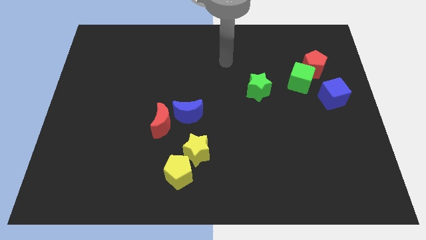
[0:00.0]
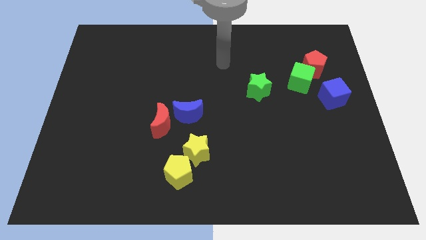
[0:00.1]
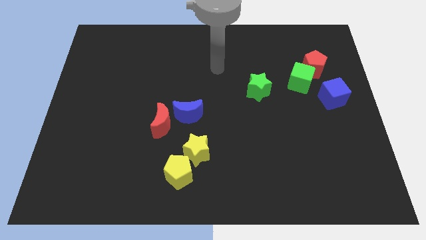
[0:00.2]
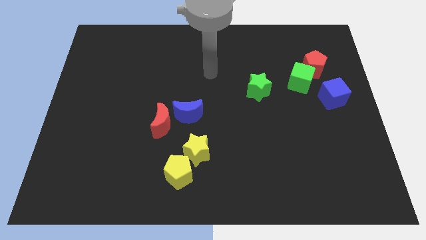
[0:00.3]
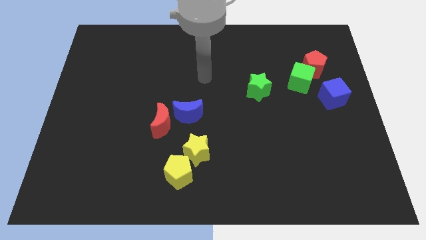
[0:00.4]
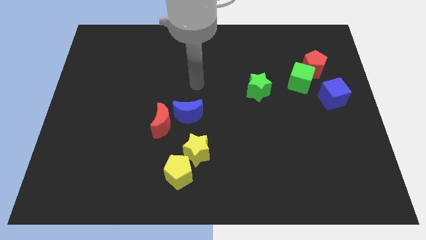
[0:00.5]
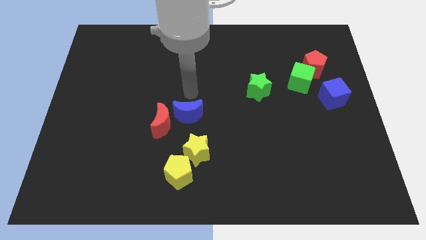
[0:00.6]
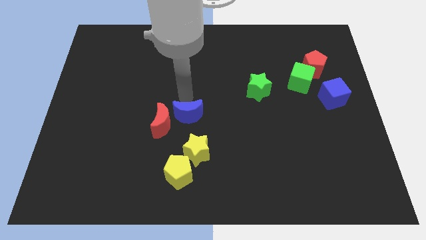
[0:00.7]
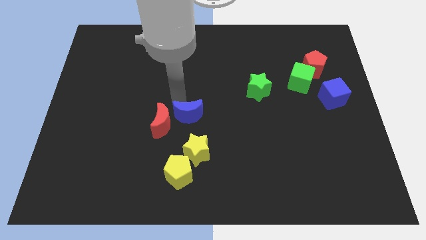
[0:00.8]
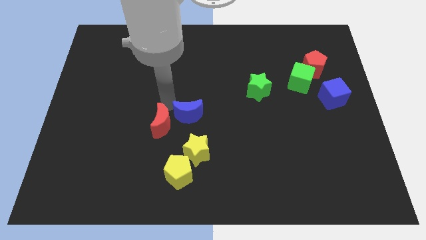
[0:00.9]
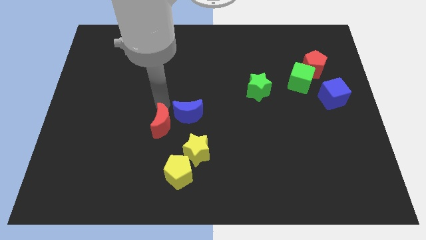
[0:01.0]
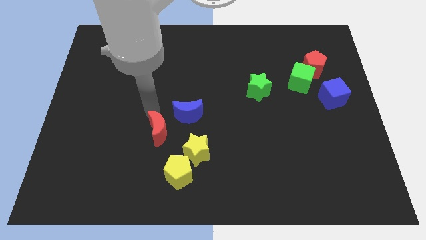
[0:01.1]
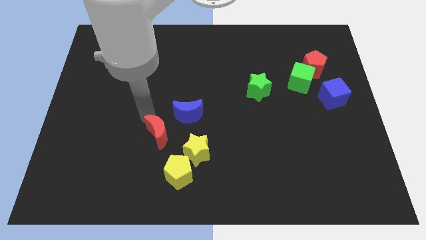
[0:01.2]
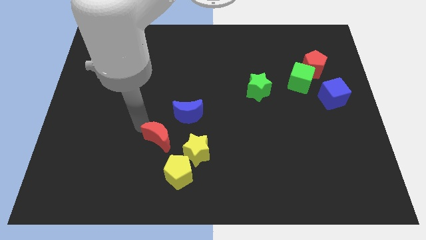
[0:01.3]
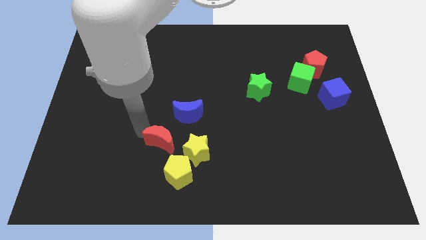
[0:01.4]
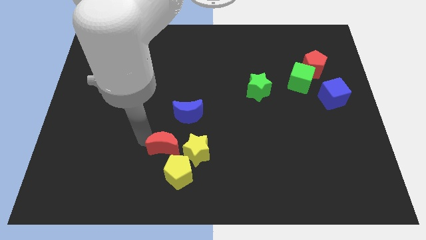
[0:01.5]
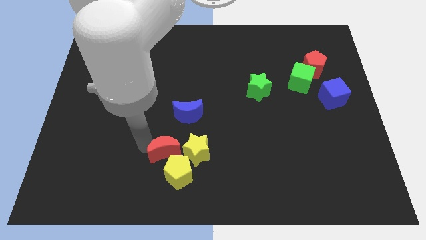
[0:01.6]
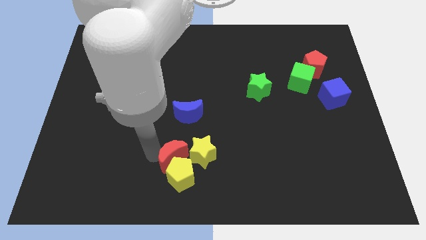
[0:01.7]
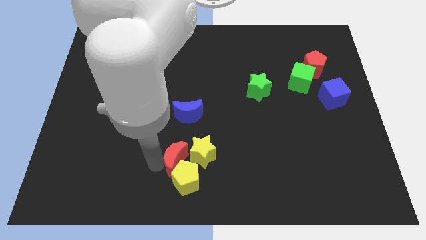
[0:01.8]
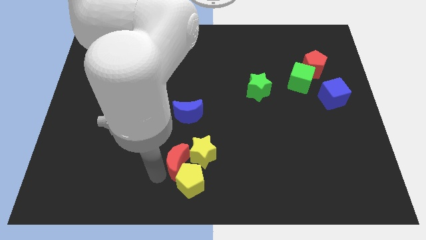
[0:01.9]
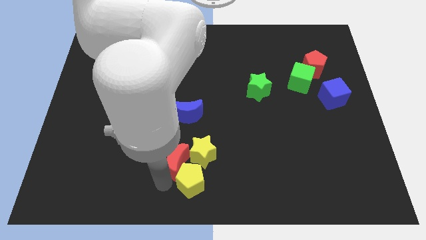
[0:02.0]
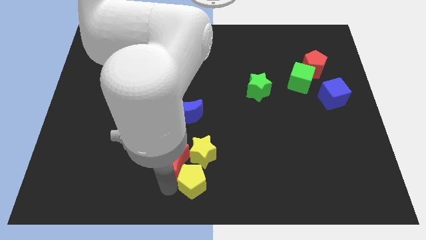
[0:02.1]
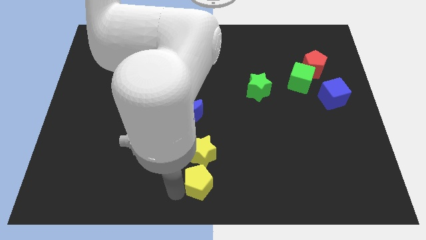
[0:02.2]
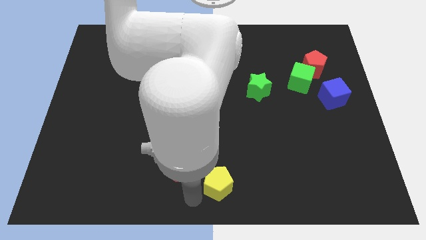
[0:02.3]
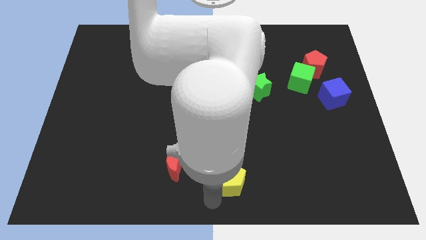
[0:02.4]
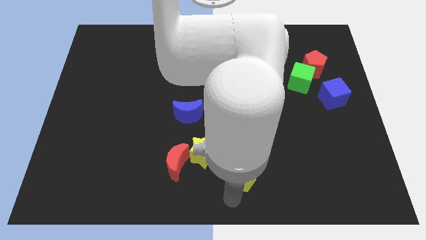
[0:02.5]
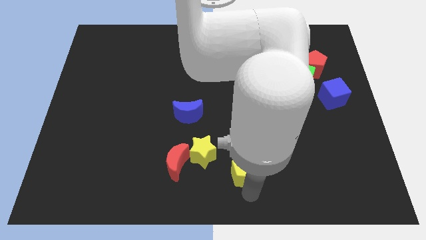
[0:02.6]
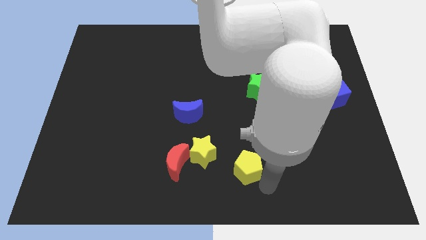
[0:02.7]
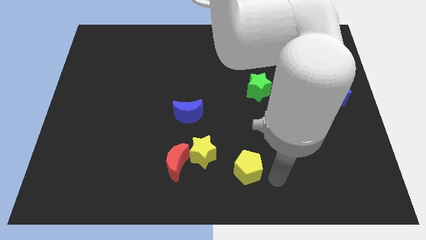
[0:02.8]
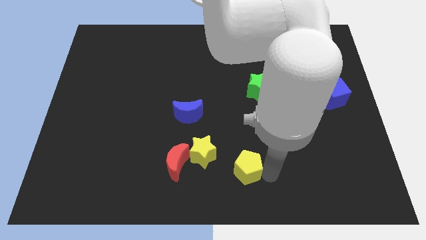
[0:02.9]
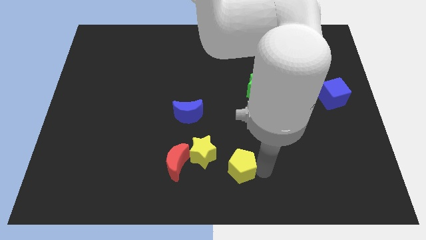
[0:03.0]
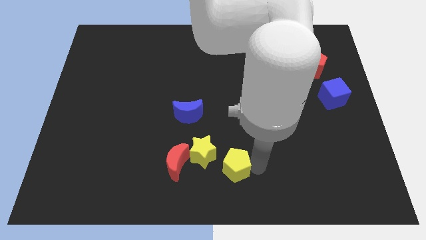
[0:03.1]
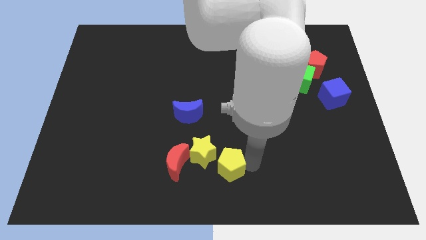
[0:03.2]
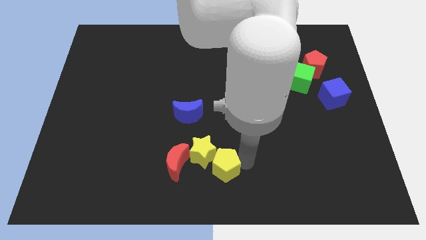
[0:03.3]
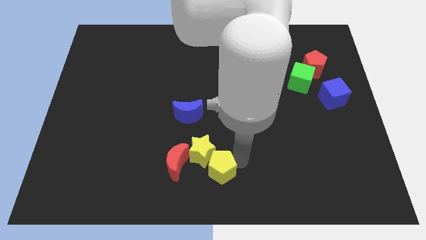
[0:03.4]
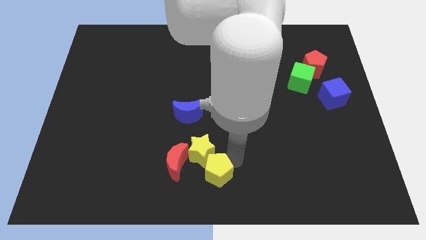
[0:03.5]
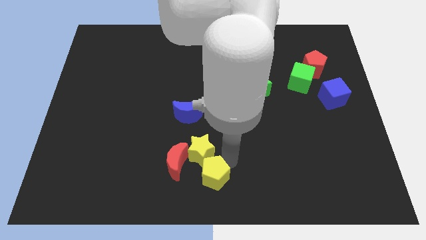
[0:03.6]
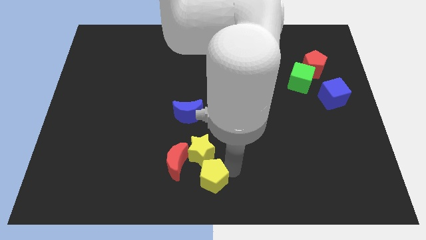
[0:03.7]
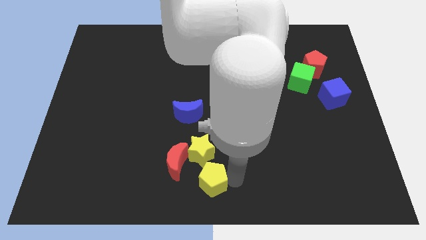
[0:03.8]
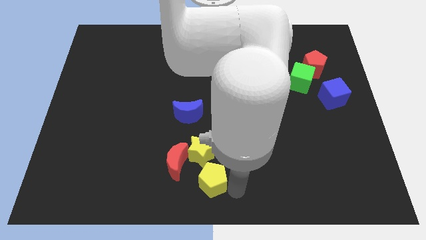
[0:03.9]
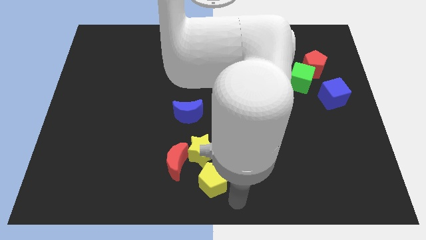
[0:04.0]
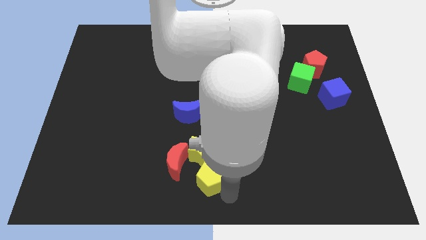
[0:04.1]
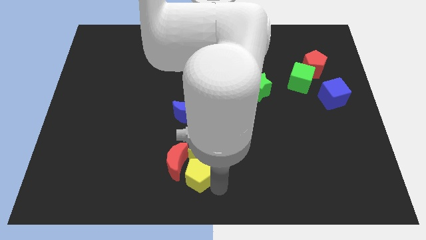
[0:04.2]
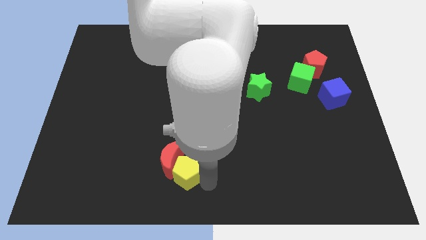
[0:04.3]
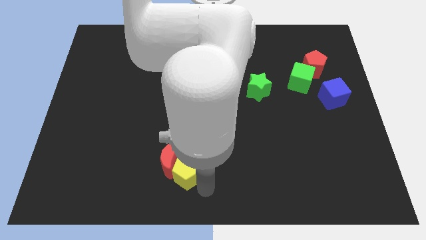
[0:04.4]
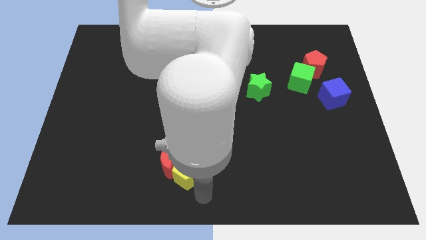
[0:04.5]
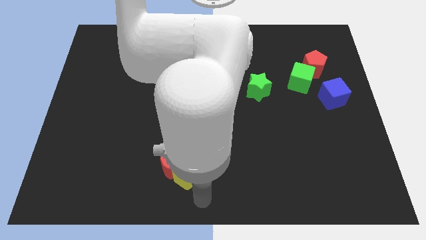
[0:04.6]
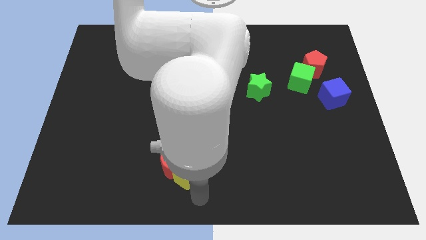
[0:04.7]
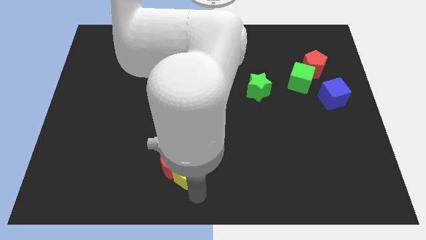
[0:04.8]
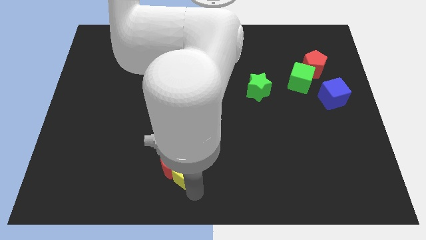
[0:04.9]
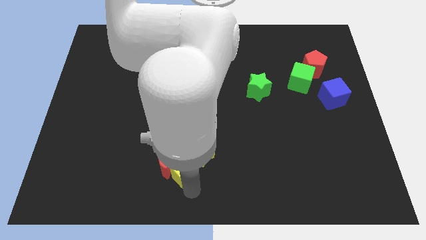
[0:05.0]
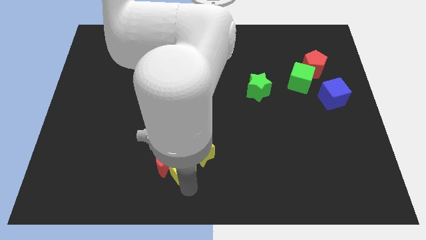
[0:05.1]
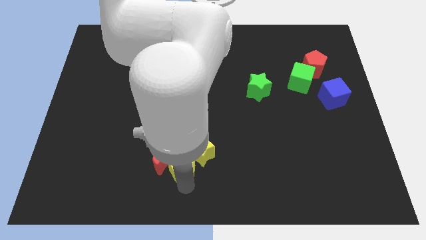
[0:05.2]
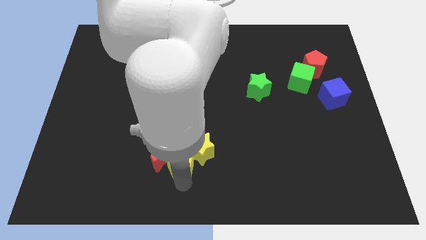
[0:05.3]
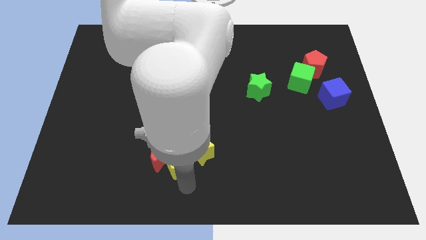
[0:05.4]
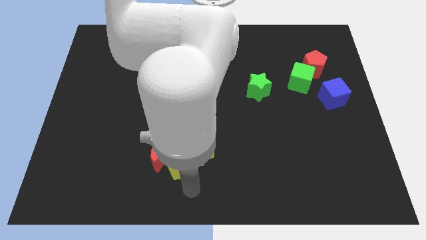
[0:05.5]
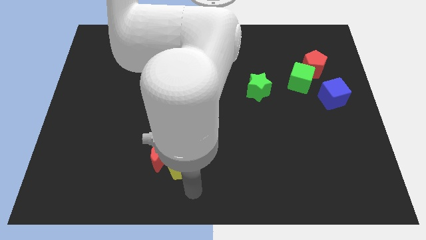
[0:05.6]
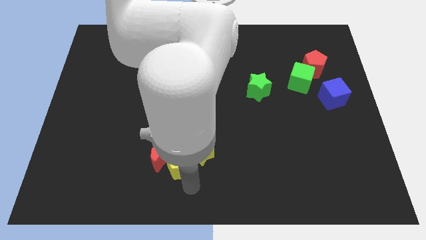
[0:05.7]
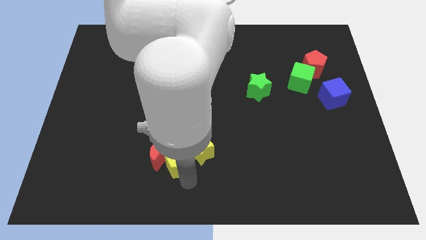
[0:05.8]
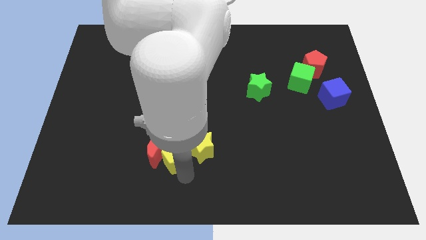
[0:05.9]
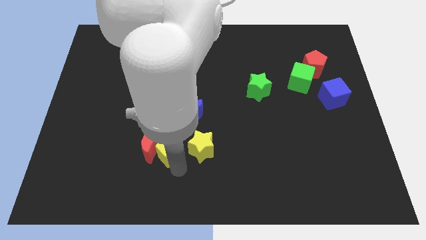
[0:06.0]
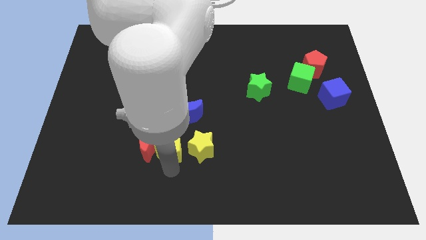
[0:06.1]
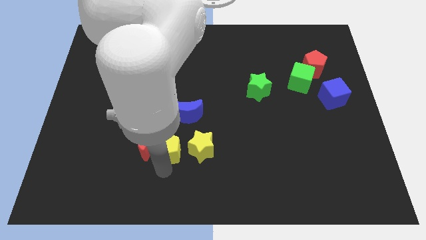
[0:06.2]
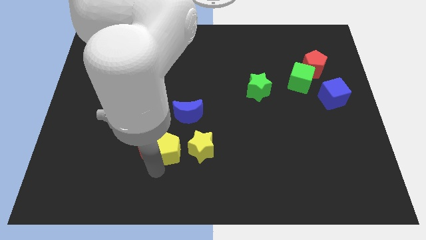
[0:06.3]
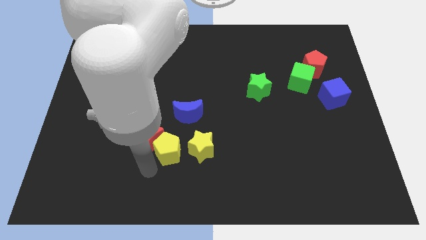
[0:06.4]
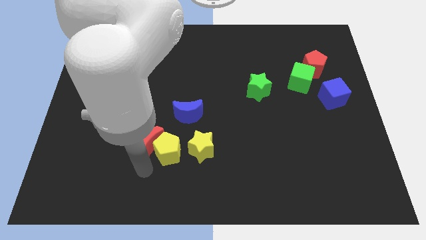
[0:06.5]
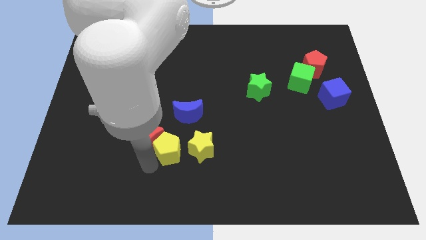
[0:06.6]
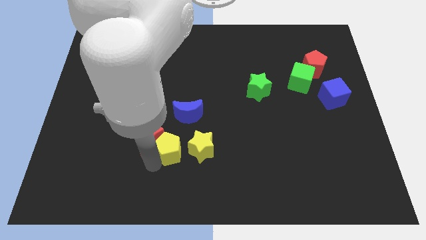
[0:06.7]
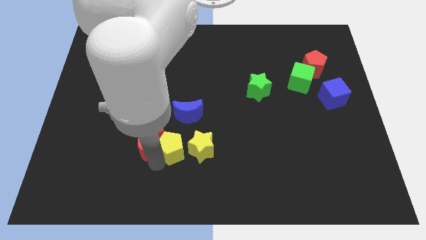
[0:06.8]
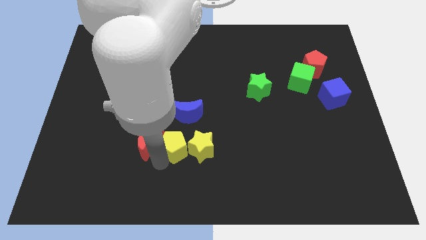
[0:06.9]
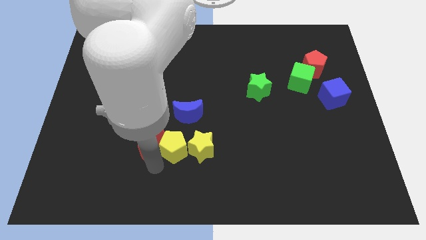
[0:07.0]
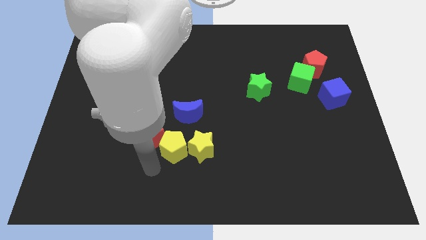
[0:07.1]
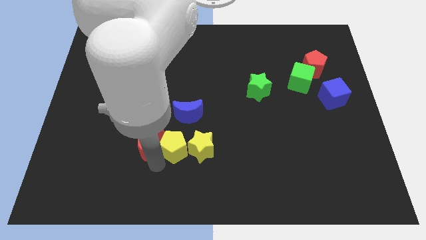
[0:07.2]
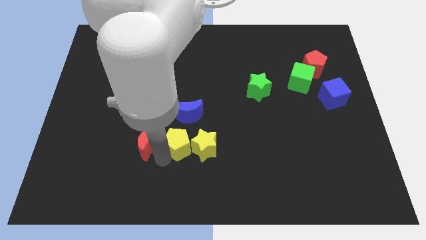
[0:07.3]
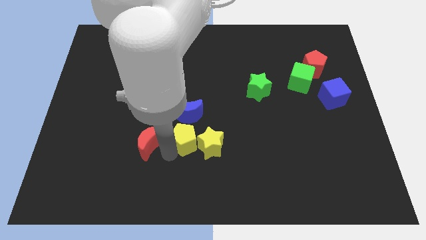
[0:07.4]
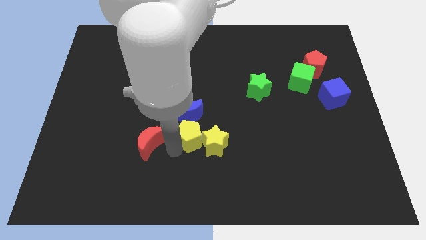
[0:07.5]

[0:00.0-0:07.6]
move the yellow pentagon to the center

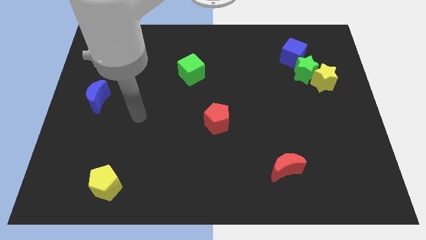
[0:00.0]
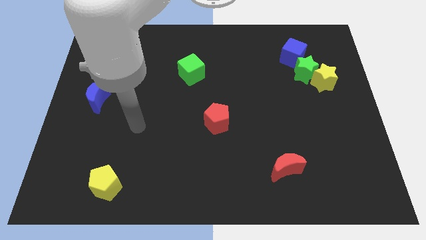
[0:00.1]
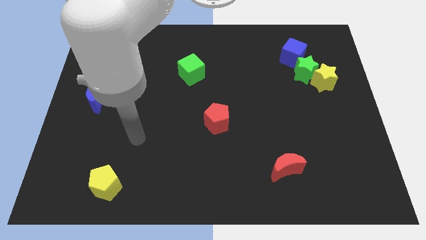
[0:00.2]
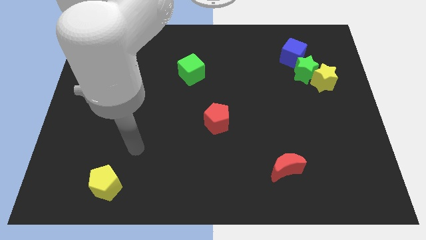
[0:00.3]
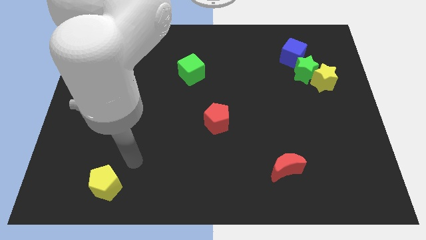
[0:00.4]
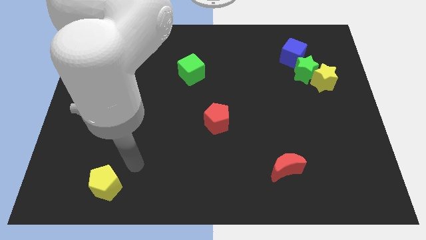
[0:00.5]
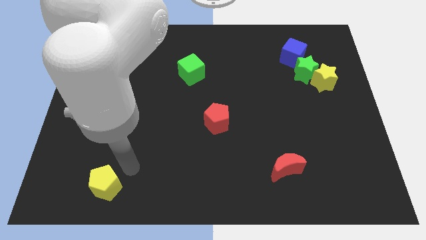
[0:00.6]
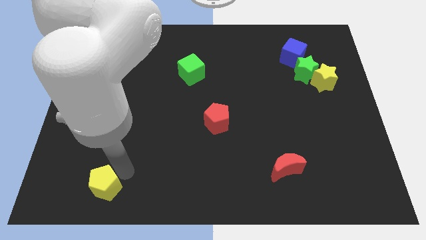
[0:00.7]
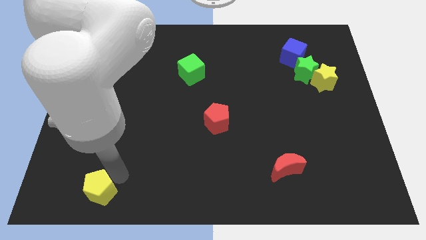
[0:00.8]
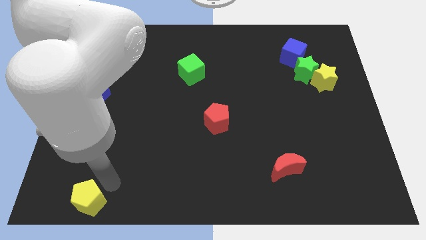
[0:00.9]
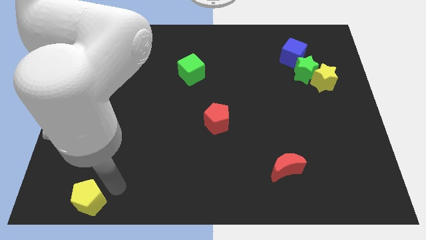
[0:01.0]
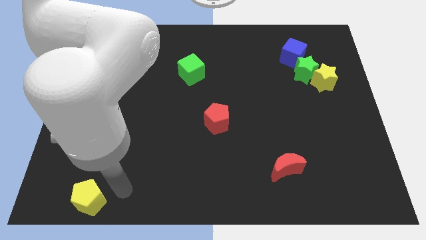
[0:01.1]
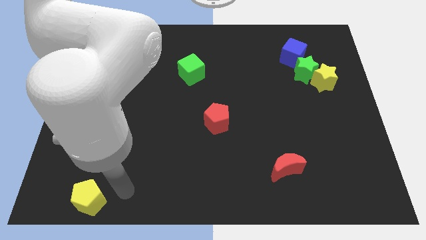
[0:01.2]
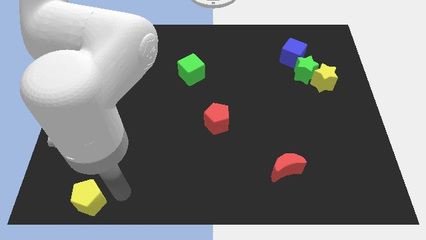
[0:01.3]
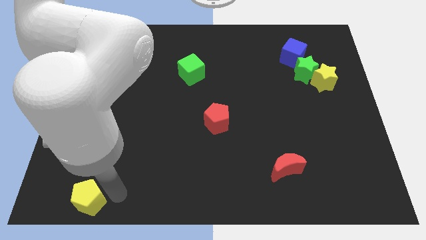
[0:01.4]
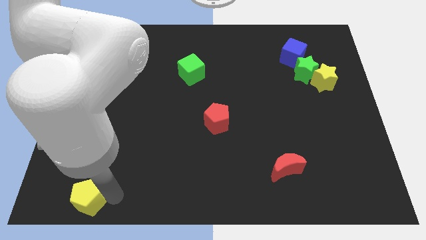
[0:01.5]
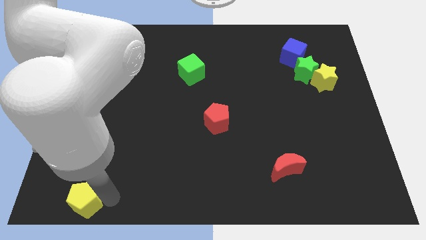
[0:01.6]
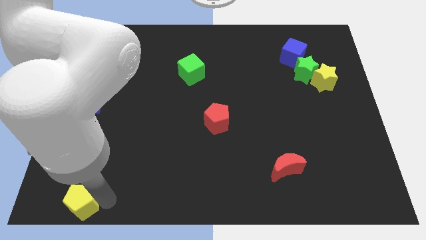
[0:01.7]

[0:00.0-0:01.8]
slide the yellow pentagon to the bottom left of the board
